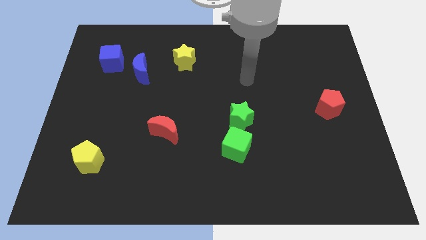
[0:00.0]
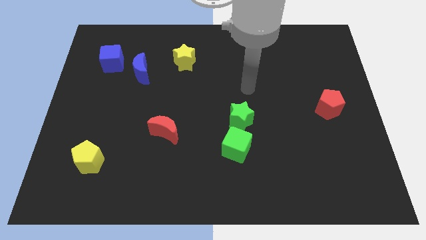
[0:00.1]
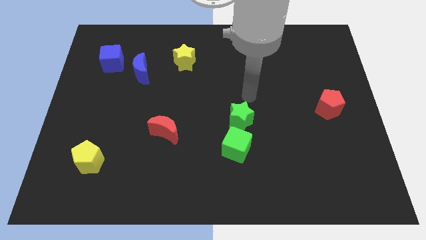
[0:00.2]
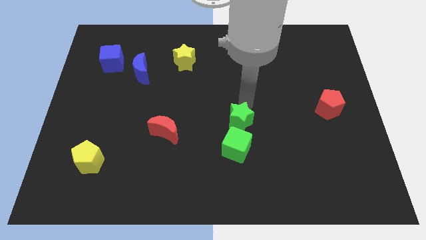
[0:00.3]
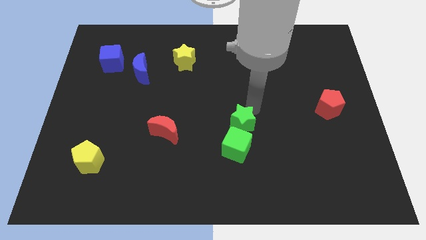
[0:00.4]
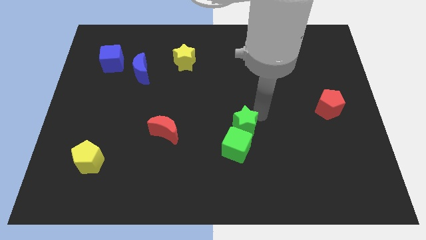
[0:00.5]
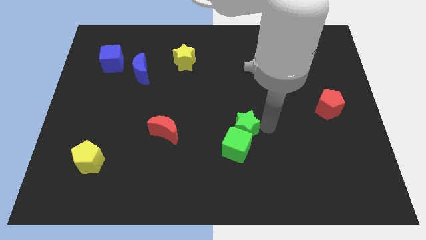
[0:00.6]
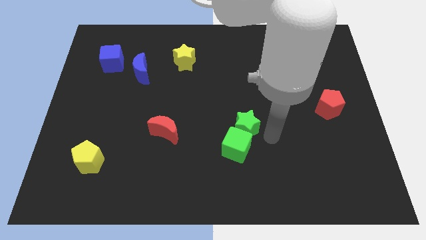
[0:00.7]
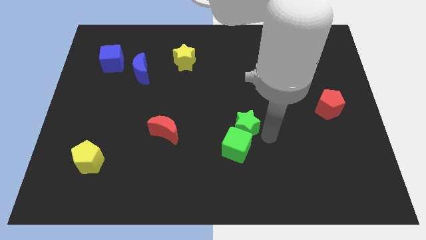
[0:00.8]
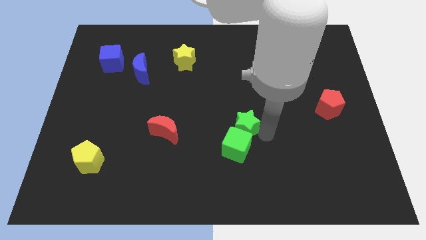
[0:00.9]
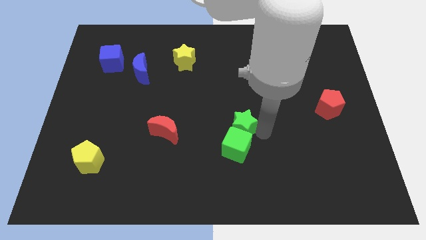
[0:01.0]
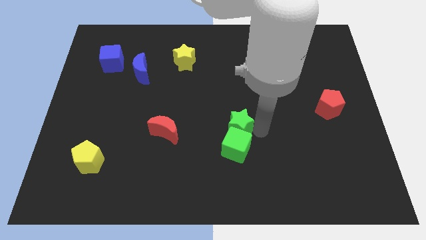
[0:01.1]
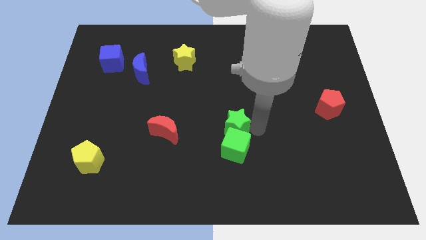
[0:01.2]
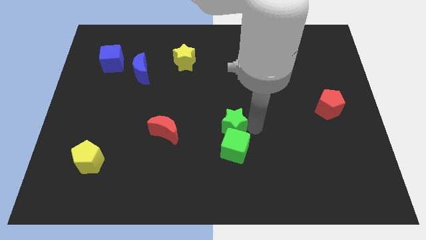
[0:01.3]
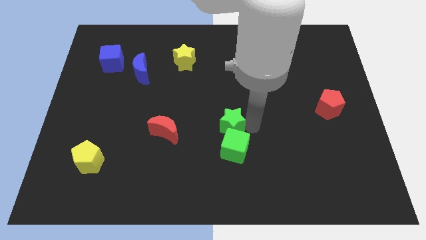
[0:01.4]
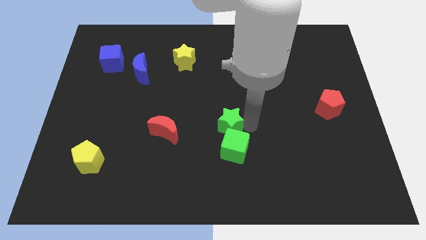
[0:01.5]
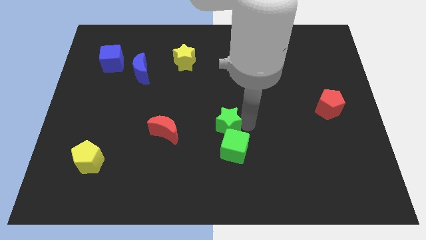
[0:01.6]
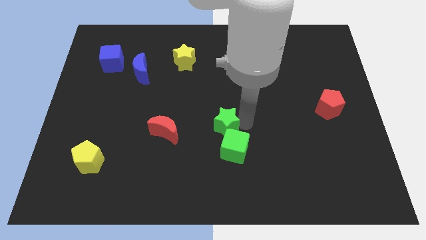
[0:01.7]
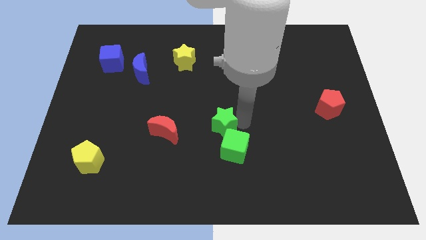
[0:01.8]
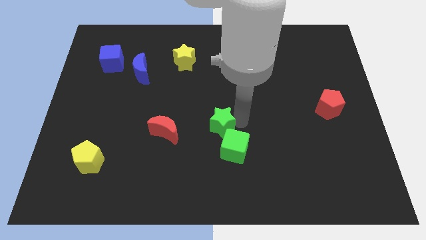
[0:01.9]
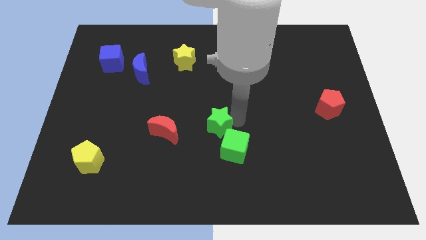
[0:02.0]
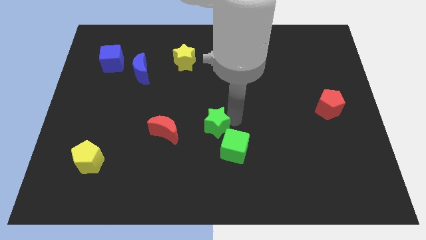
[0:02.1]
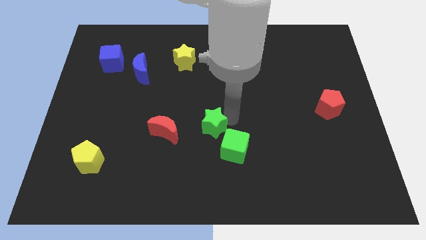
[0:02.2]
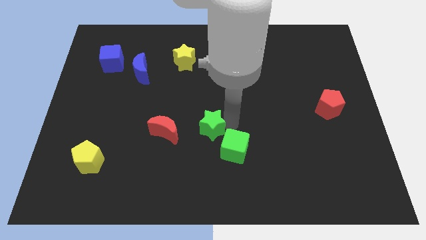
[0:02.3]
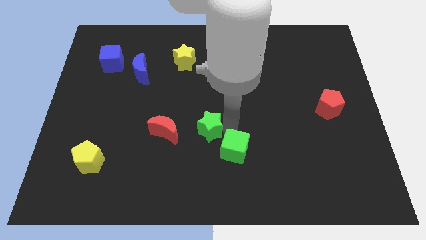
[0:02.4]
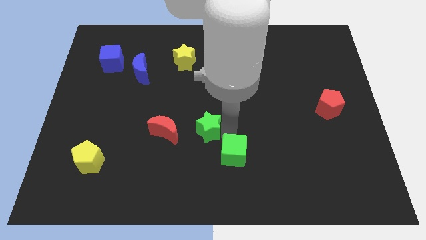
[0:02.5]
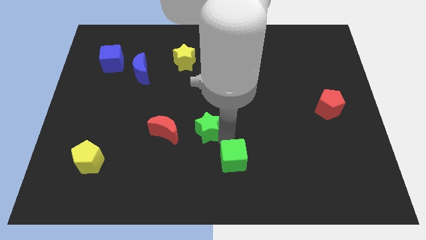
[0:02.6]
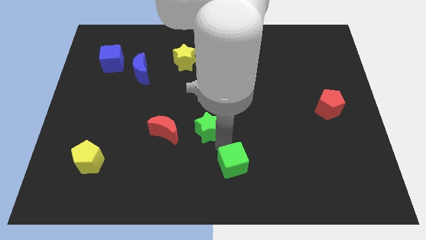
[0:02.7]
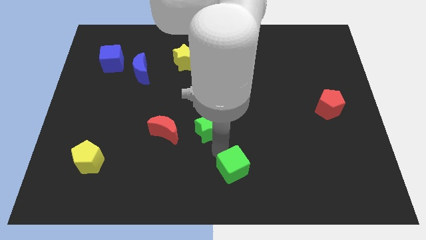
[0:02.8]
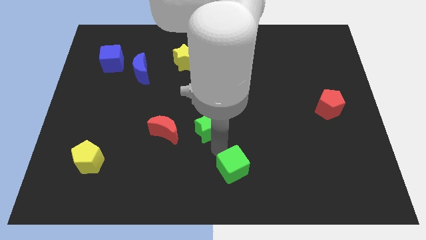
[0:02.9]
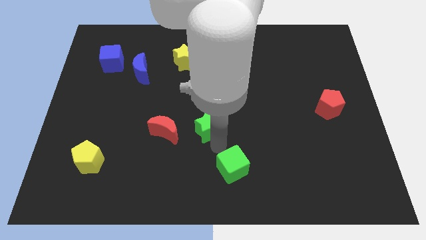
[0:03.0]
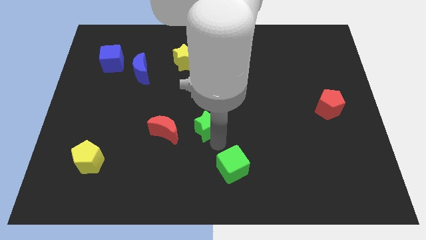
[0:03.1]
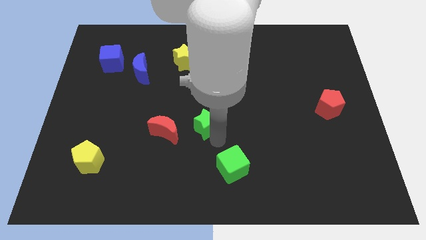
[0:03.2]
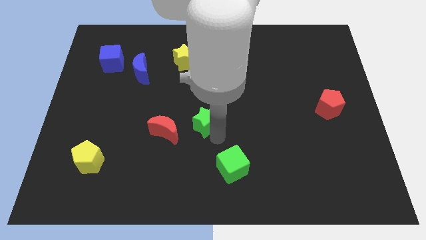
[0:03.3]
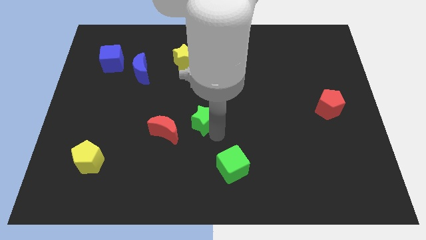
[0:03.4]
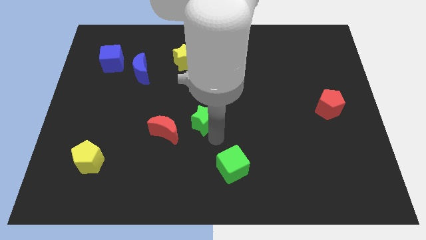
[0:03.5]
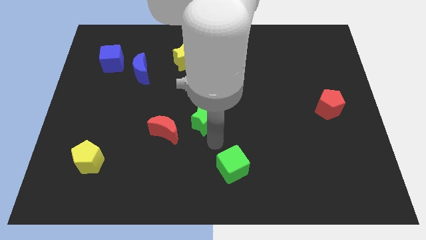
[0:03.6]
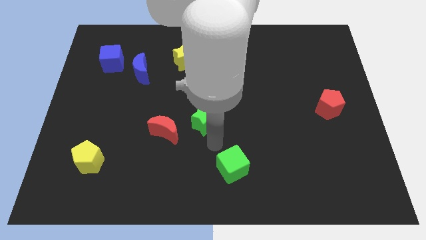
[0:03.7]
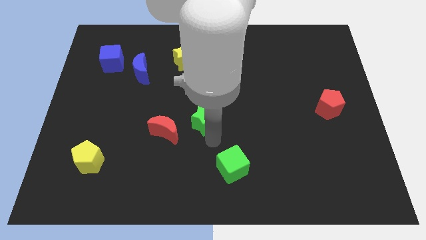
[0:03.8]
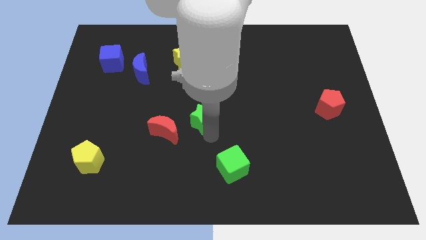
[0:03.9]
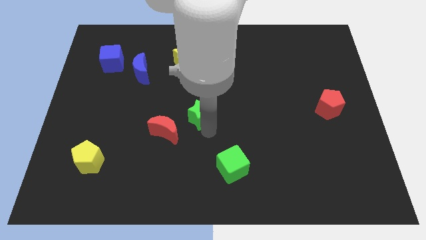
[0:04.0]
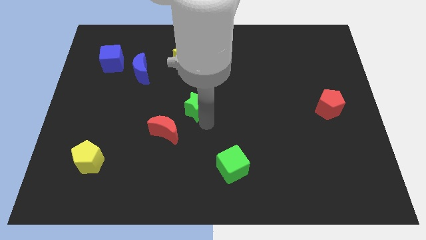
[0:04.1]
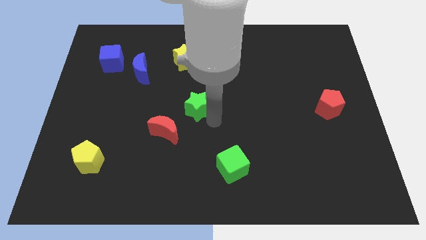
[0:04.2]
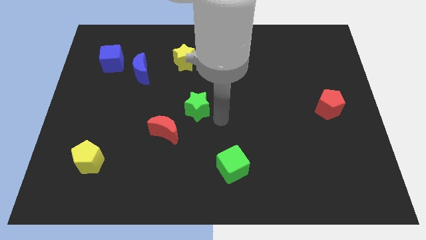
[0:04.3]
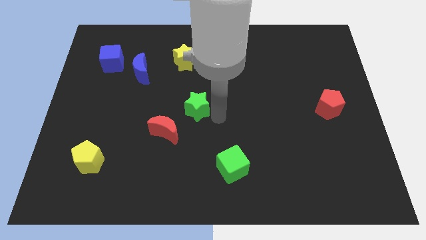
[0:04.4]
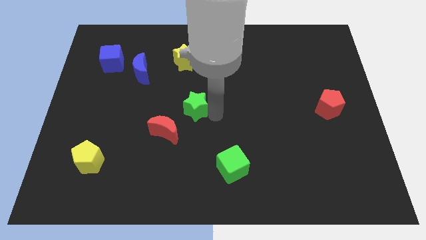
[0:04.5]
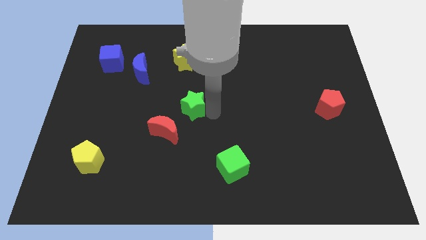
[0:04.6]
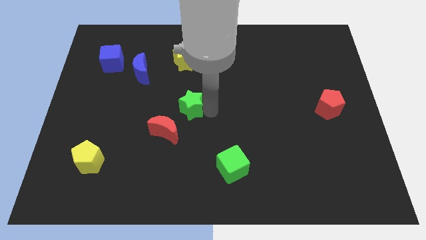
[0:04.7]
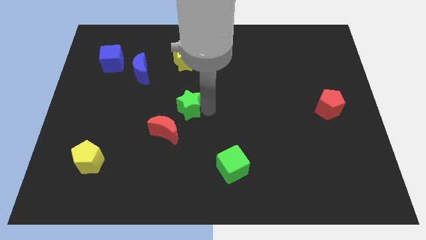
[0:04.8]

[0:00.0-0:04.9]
push the green star to the top side of the red moon

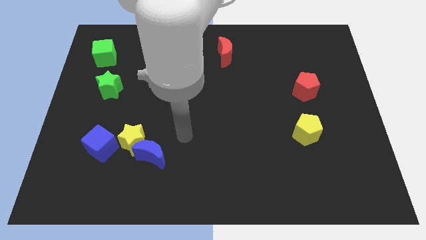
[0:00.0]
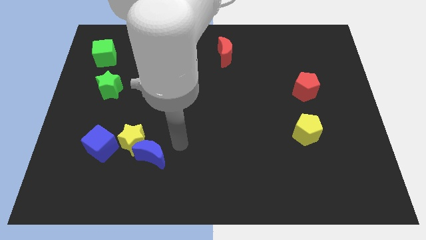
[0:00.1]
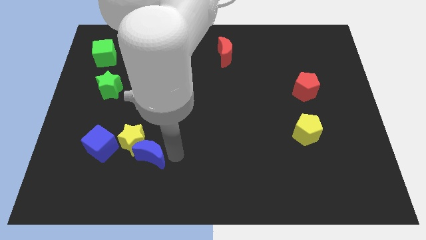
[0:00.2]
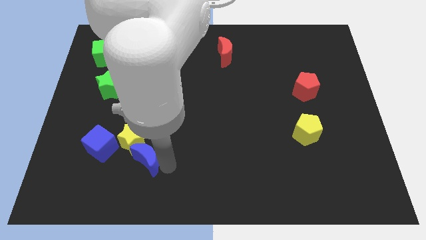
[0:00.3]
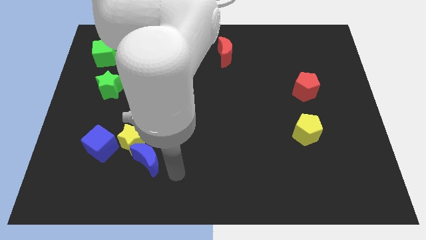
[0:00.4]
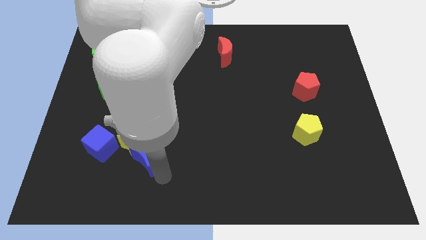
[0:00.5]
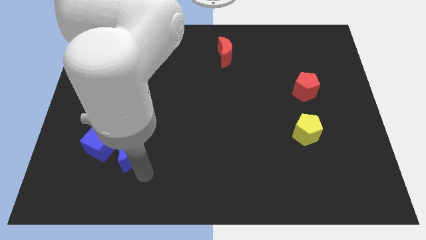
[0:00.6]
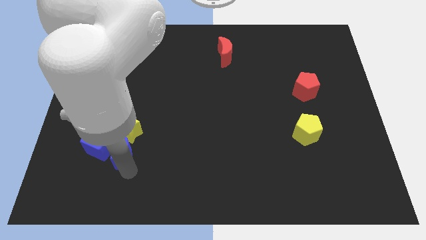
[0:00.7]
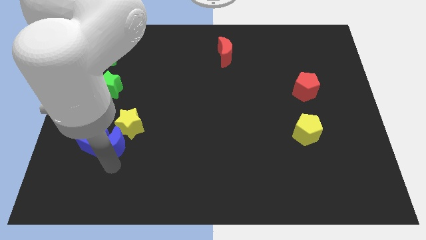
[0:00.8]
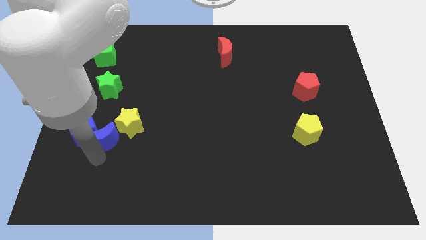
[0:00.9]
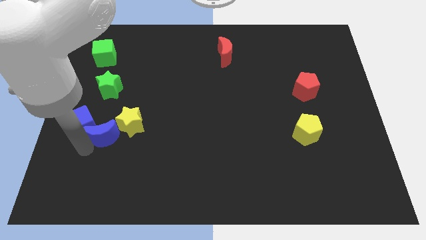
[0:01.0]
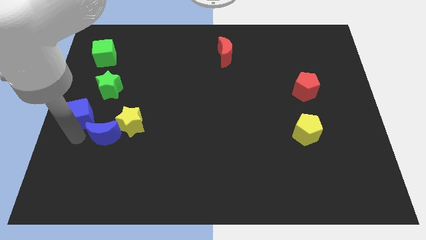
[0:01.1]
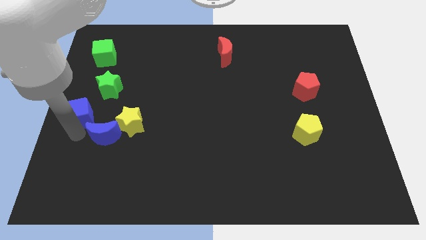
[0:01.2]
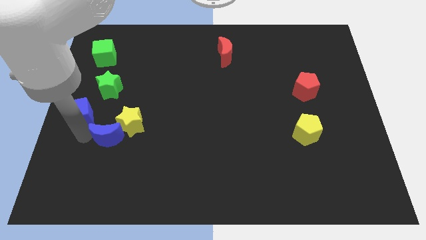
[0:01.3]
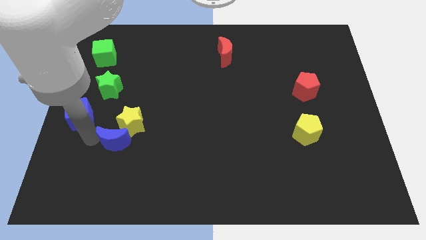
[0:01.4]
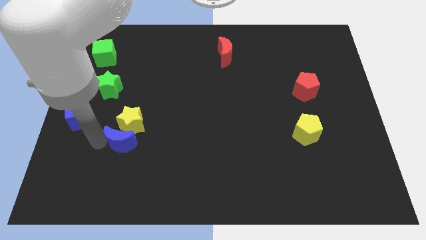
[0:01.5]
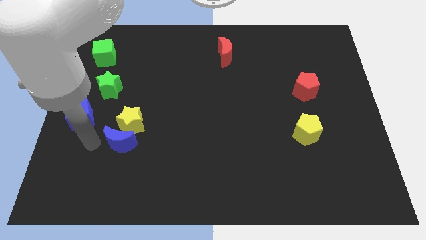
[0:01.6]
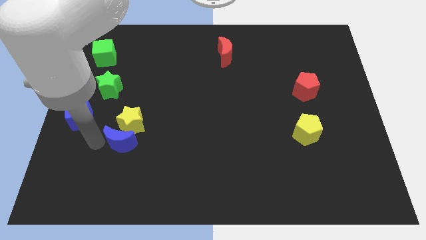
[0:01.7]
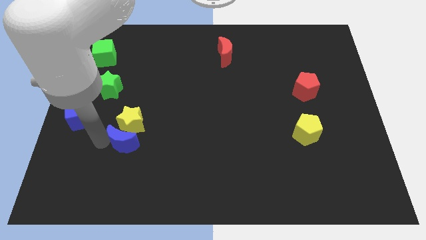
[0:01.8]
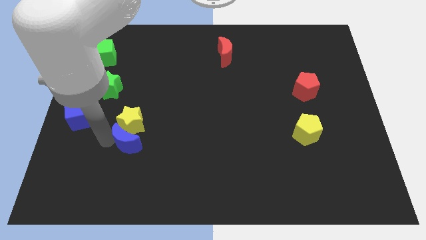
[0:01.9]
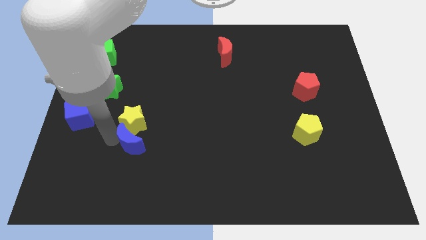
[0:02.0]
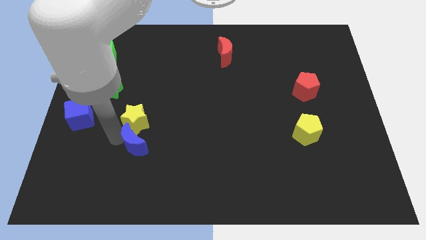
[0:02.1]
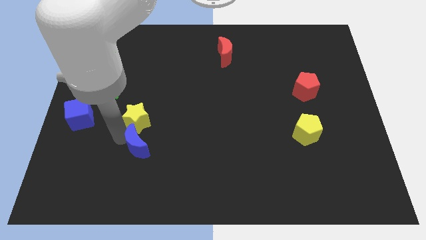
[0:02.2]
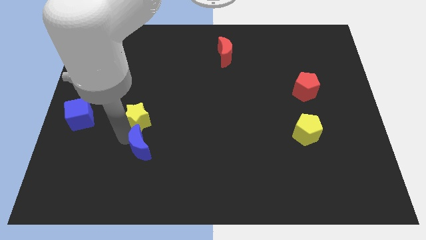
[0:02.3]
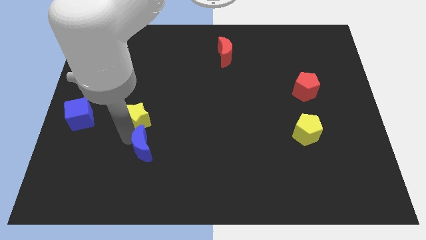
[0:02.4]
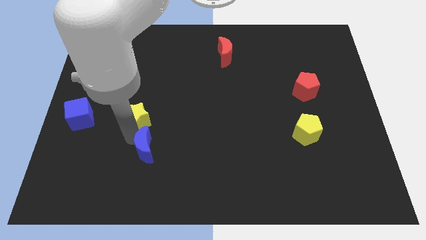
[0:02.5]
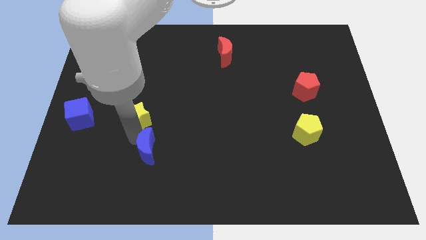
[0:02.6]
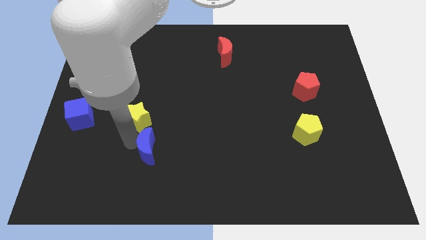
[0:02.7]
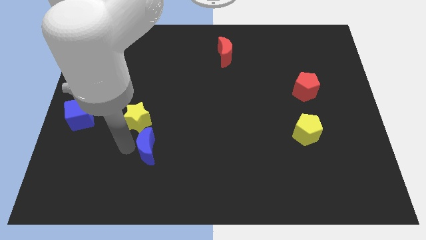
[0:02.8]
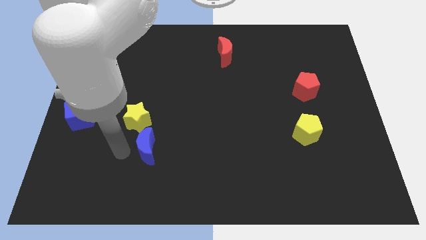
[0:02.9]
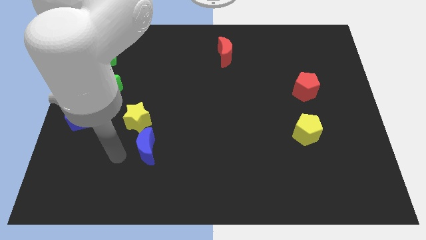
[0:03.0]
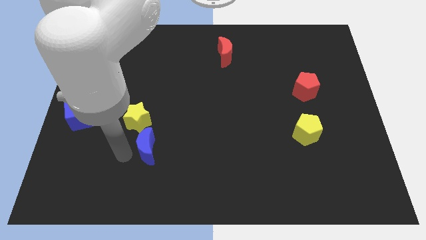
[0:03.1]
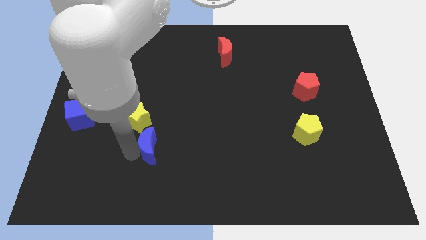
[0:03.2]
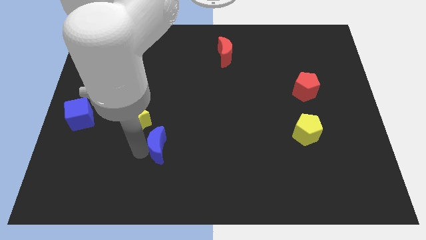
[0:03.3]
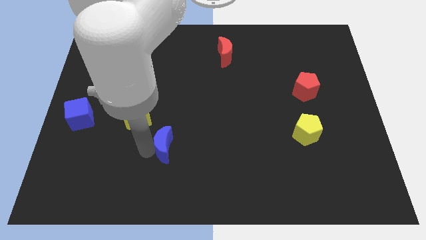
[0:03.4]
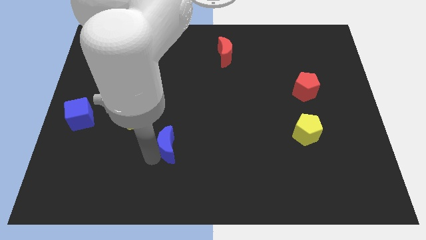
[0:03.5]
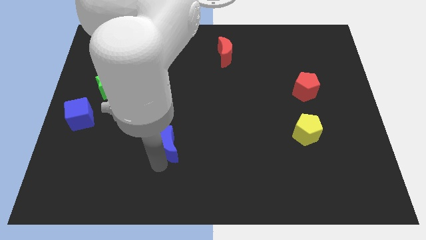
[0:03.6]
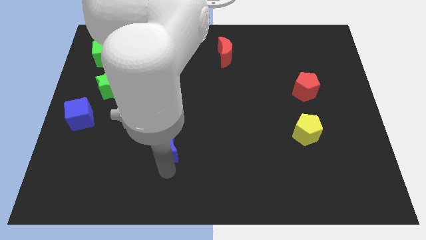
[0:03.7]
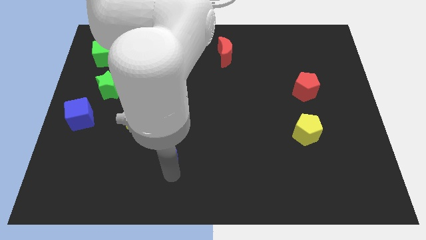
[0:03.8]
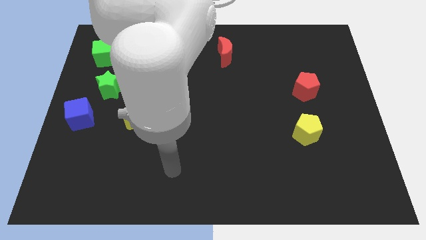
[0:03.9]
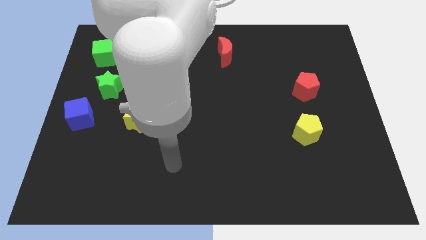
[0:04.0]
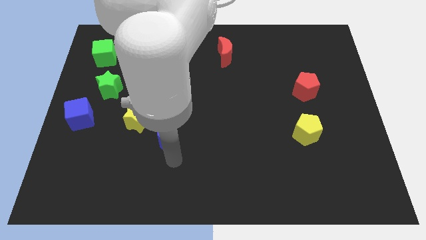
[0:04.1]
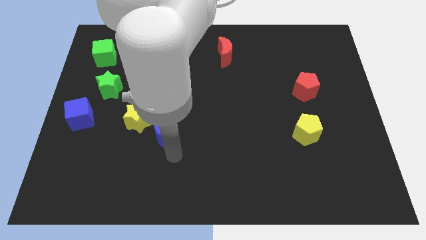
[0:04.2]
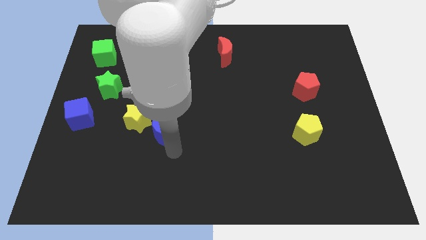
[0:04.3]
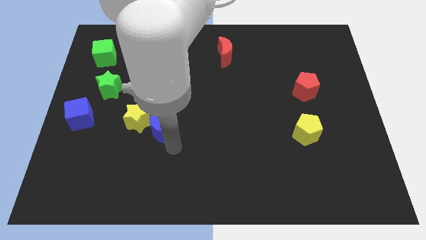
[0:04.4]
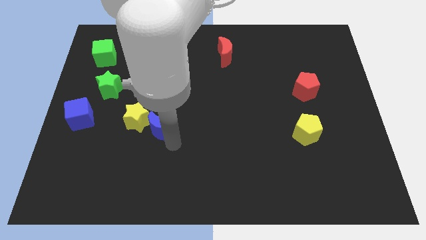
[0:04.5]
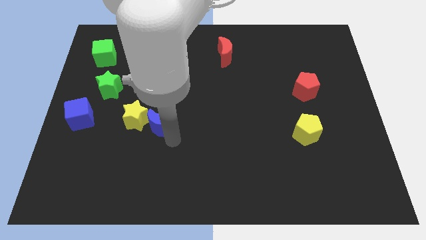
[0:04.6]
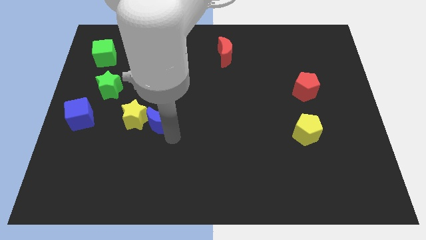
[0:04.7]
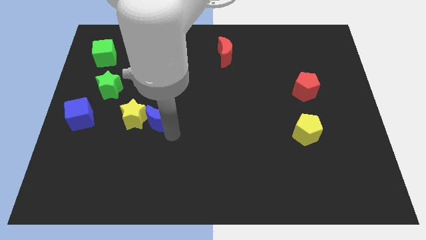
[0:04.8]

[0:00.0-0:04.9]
slide the blue moon diagonally up and to the right of the yellow star
